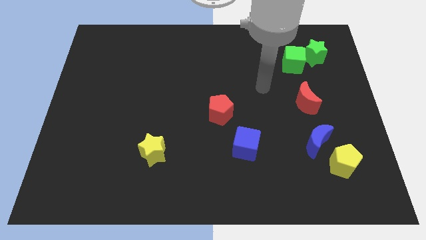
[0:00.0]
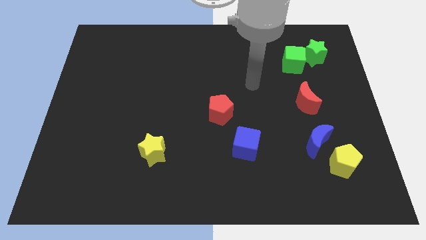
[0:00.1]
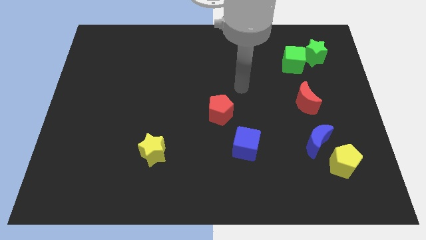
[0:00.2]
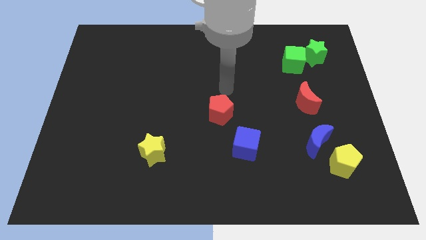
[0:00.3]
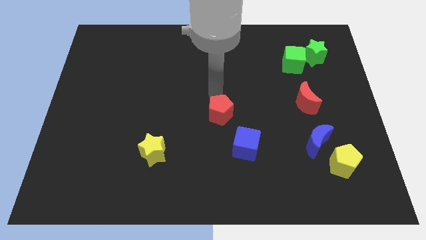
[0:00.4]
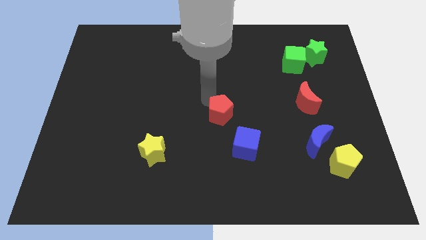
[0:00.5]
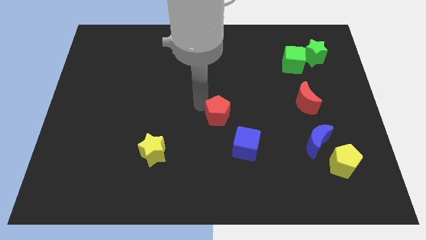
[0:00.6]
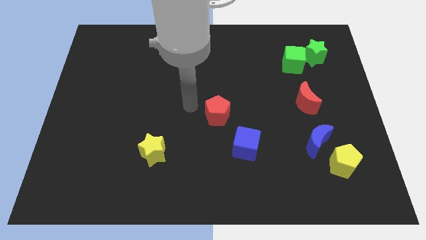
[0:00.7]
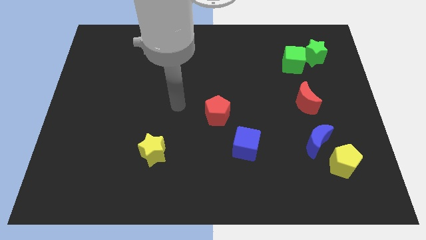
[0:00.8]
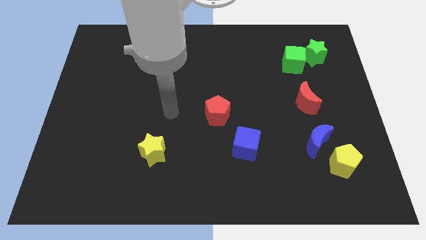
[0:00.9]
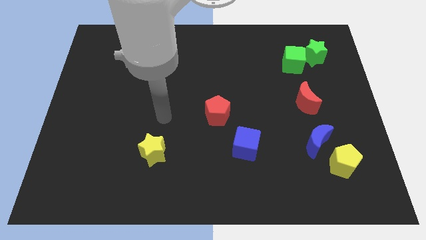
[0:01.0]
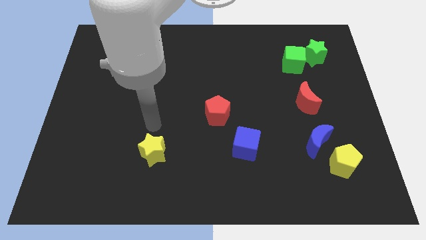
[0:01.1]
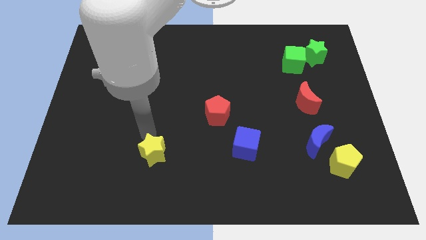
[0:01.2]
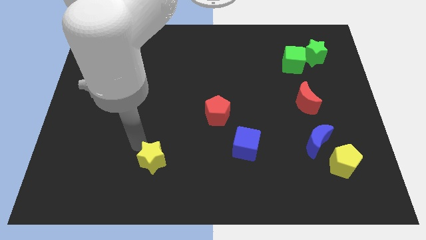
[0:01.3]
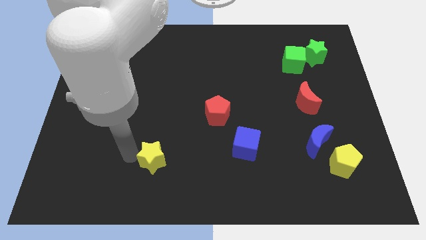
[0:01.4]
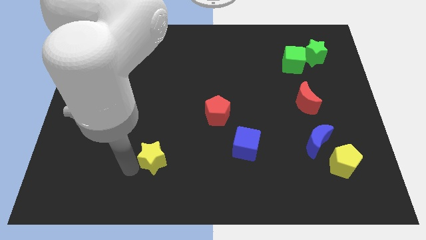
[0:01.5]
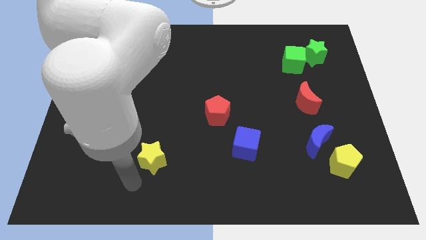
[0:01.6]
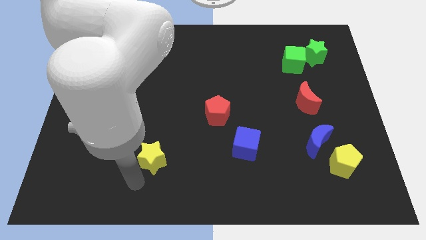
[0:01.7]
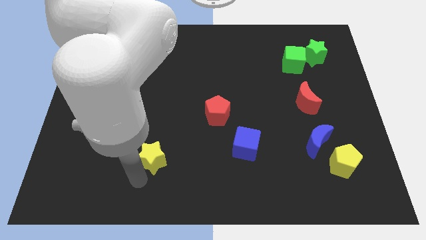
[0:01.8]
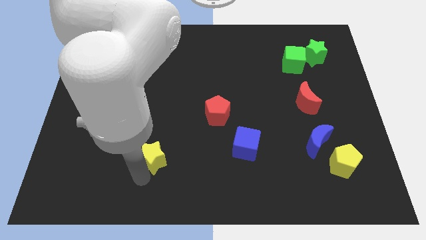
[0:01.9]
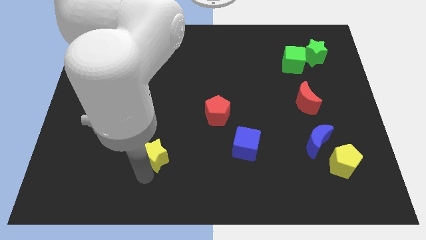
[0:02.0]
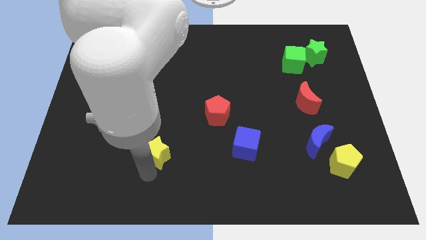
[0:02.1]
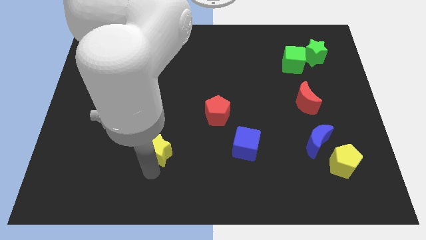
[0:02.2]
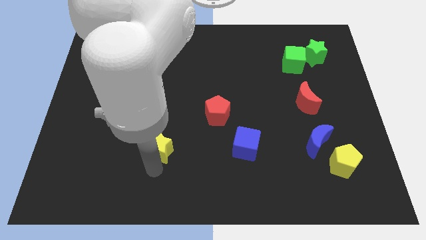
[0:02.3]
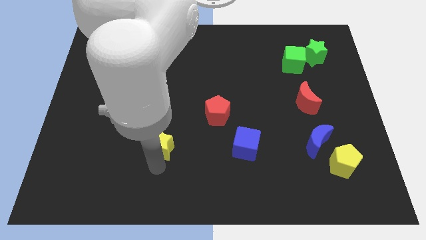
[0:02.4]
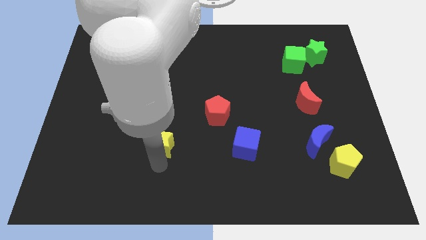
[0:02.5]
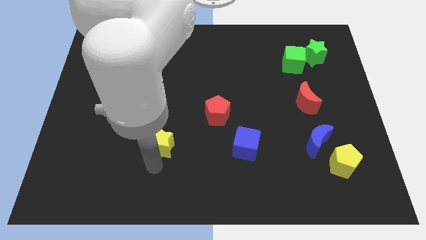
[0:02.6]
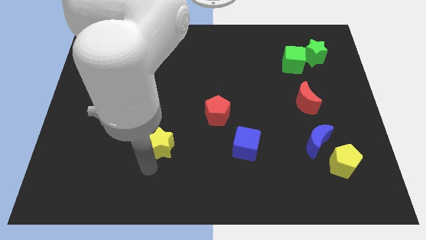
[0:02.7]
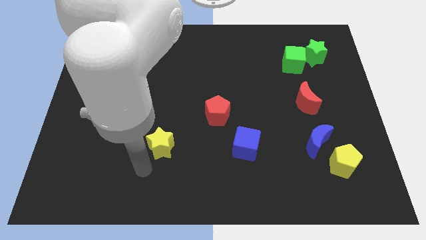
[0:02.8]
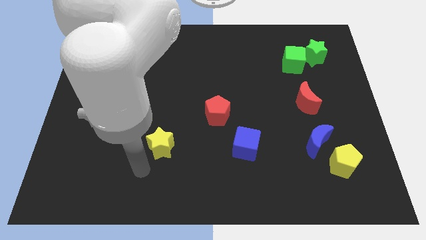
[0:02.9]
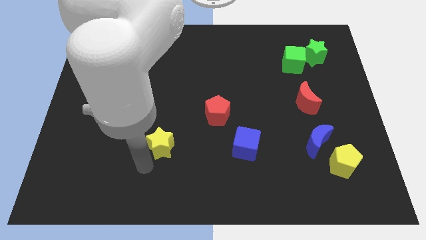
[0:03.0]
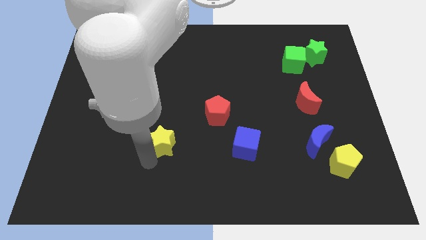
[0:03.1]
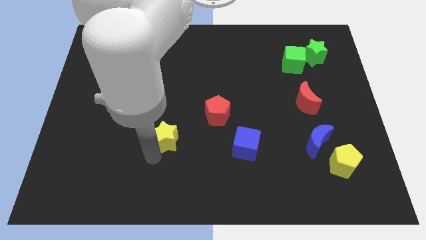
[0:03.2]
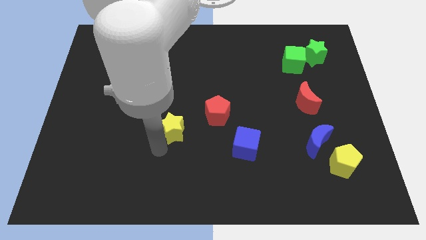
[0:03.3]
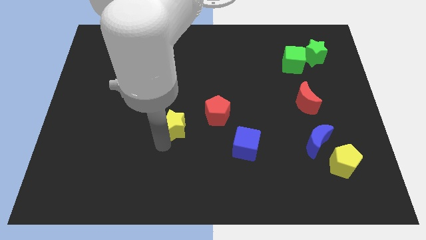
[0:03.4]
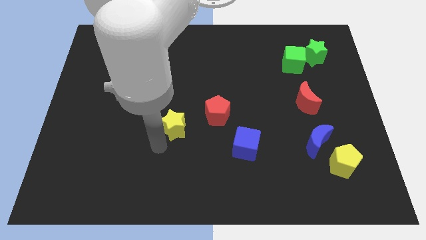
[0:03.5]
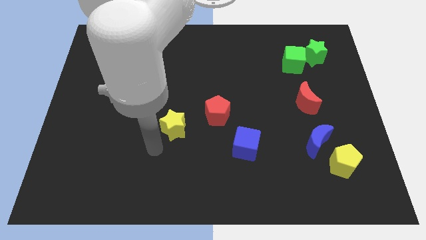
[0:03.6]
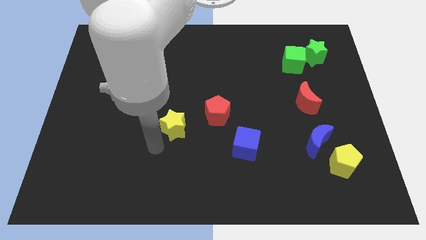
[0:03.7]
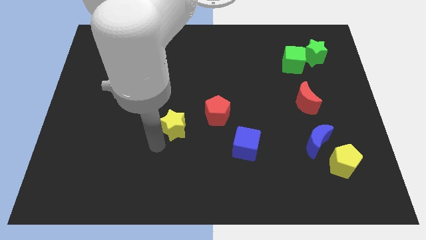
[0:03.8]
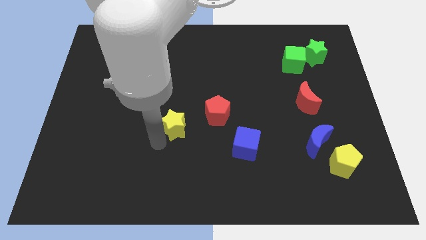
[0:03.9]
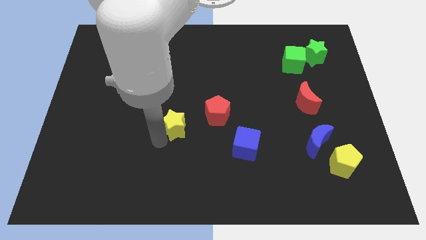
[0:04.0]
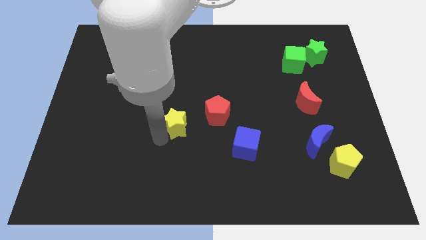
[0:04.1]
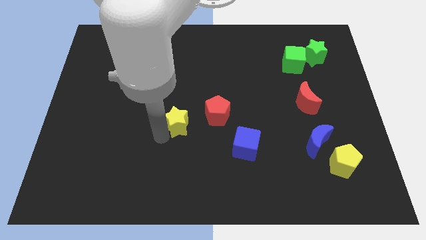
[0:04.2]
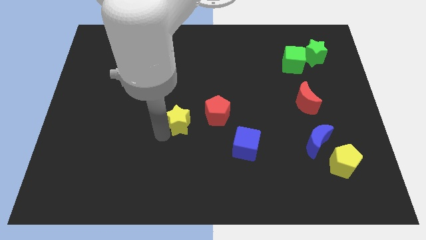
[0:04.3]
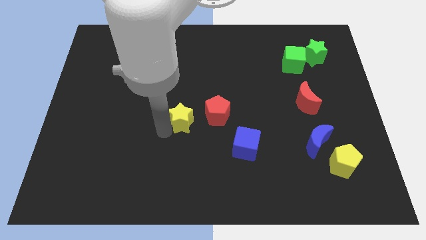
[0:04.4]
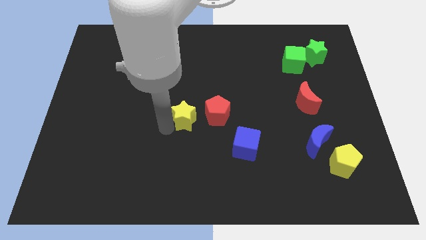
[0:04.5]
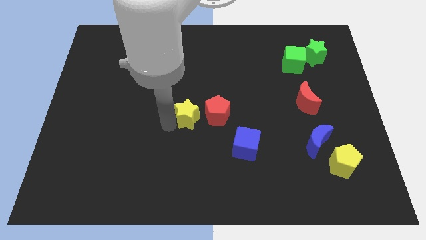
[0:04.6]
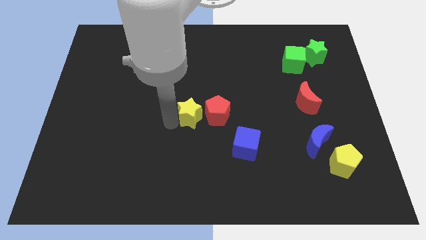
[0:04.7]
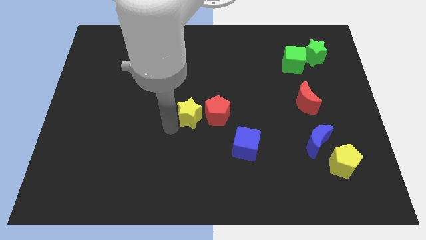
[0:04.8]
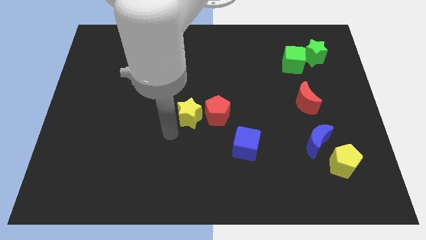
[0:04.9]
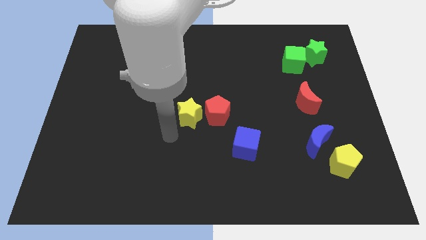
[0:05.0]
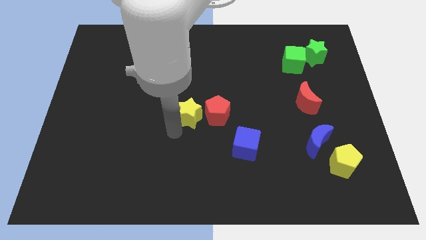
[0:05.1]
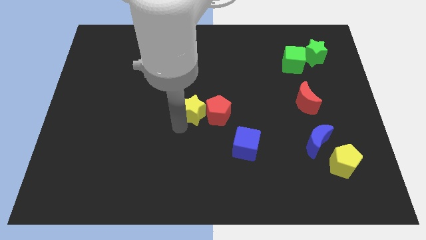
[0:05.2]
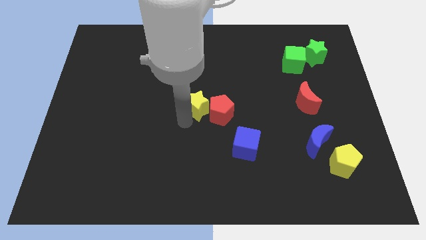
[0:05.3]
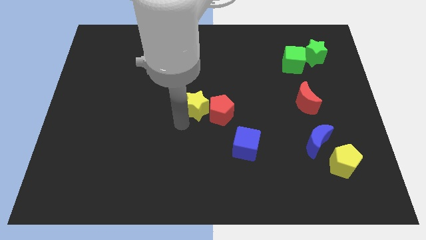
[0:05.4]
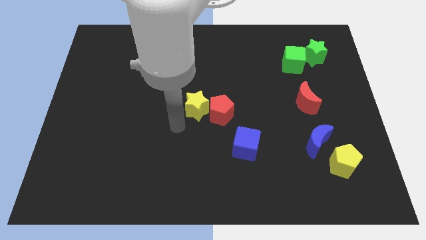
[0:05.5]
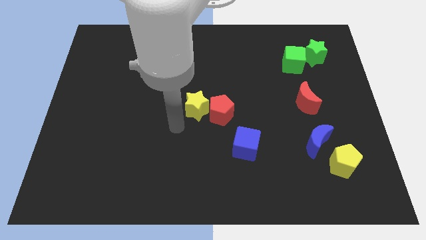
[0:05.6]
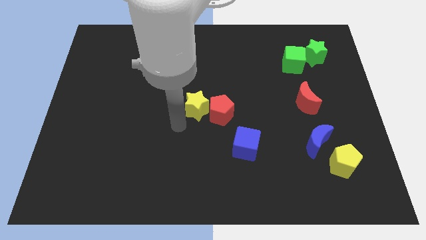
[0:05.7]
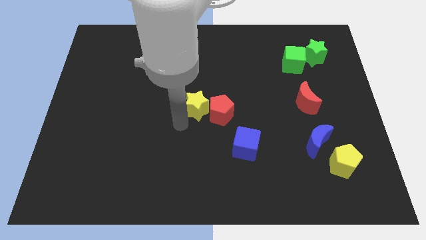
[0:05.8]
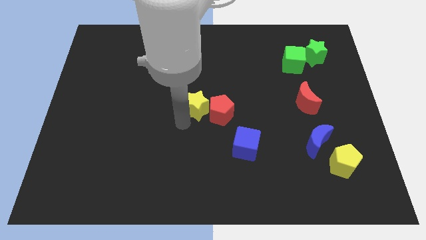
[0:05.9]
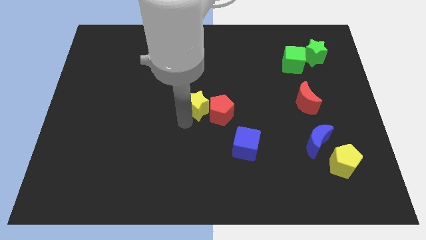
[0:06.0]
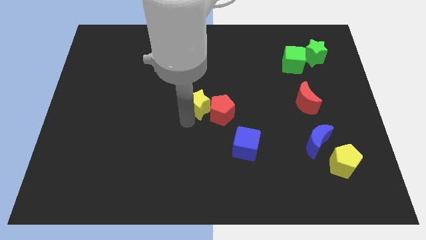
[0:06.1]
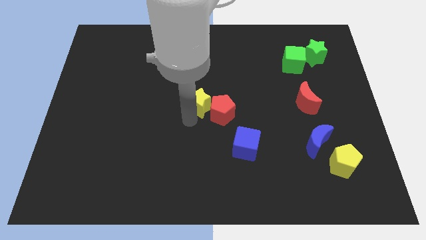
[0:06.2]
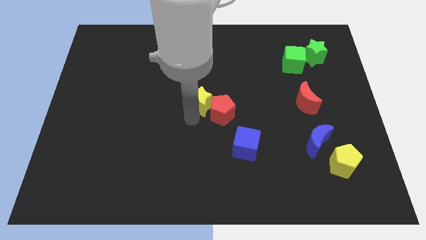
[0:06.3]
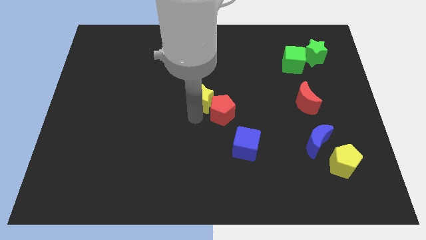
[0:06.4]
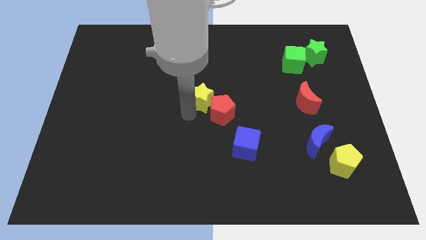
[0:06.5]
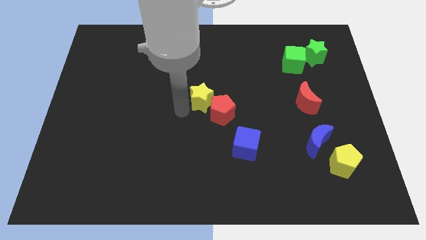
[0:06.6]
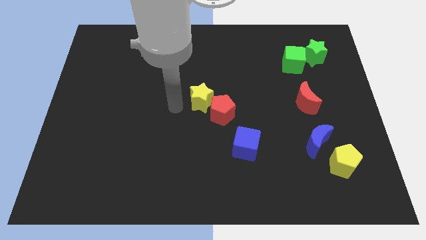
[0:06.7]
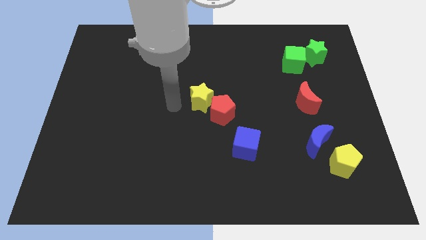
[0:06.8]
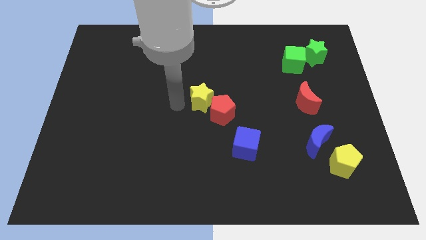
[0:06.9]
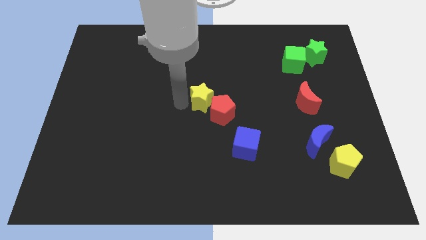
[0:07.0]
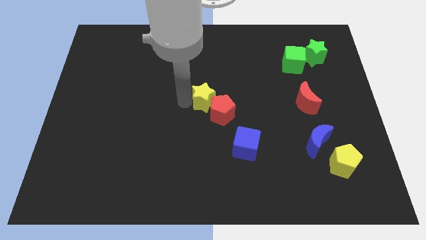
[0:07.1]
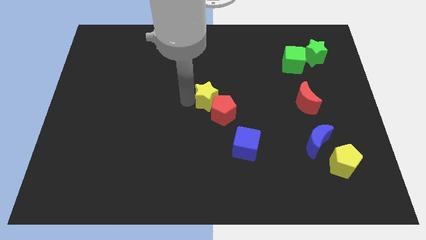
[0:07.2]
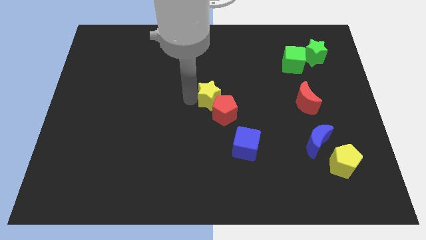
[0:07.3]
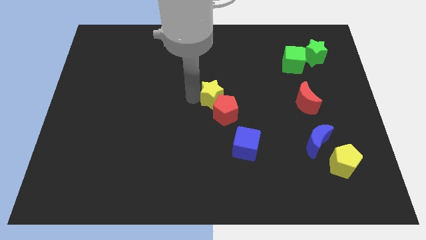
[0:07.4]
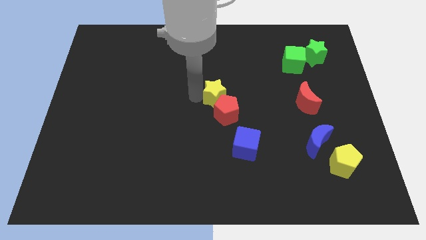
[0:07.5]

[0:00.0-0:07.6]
push the yellow star up and to the right

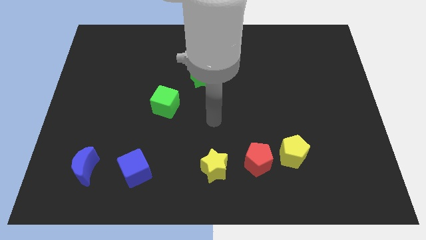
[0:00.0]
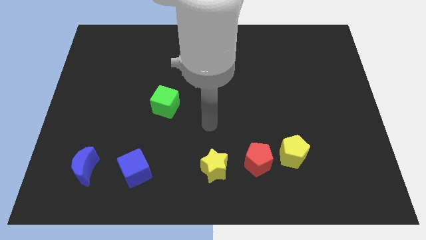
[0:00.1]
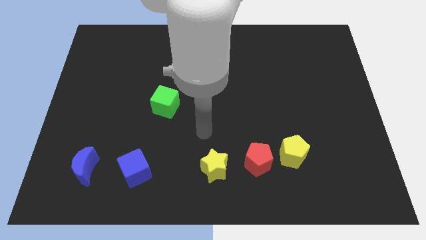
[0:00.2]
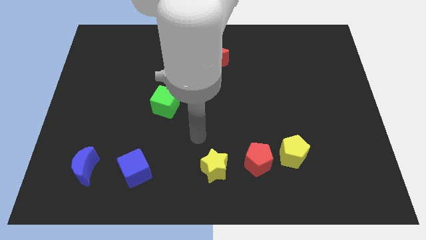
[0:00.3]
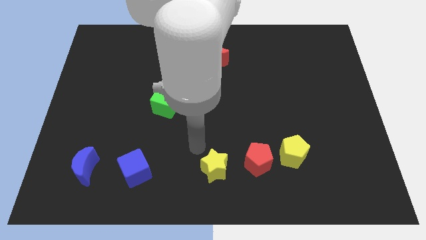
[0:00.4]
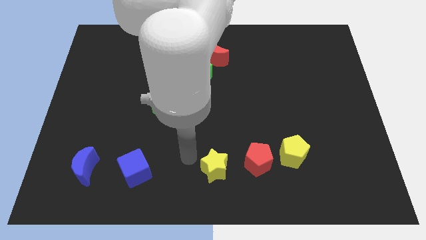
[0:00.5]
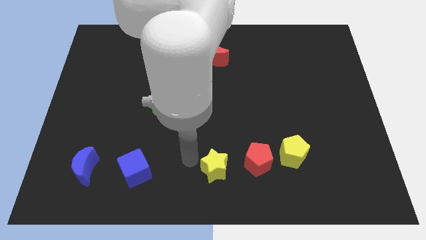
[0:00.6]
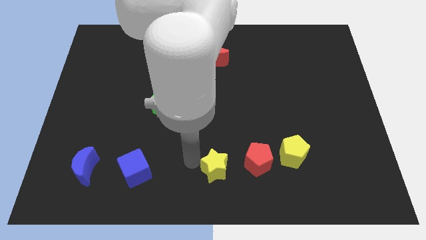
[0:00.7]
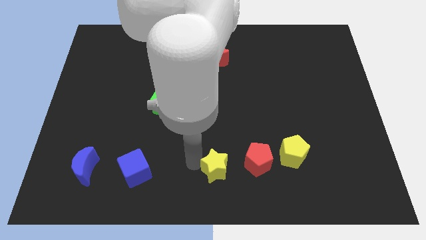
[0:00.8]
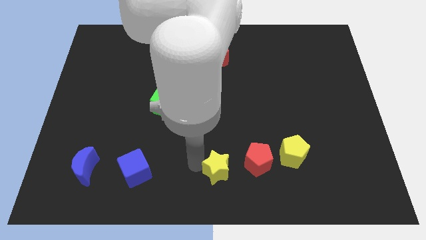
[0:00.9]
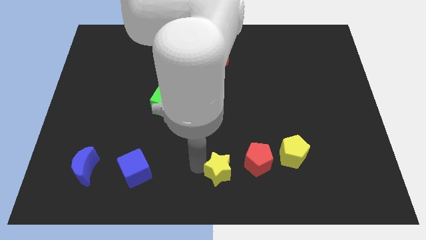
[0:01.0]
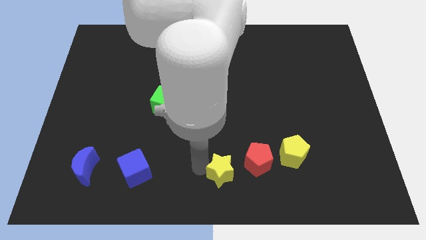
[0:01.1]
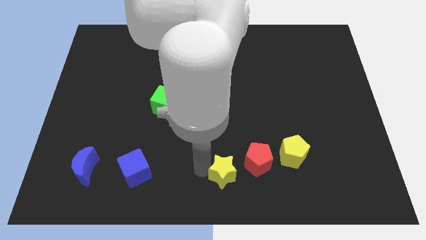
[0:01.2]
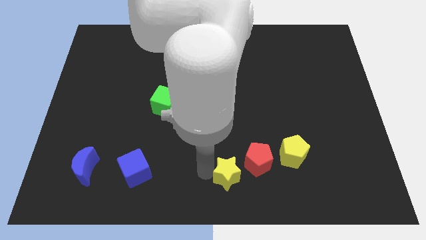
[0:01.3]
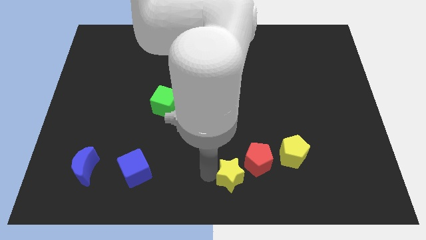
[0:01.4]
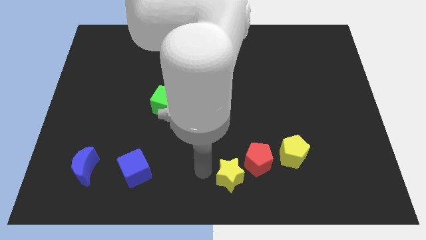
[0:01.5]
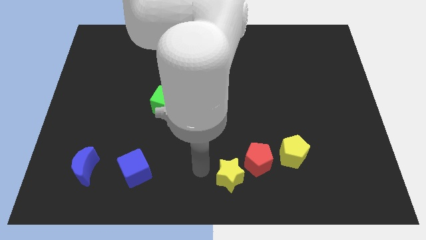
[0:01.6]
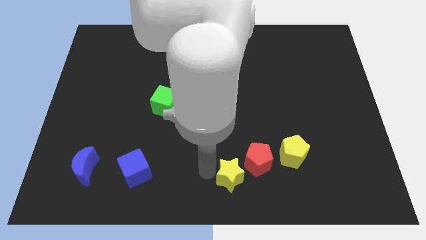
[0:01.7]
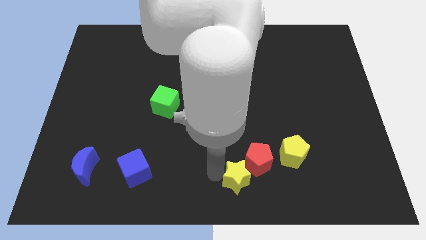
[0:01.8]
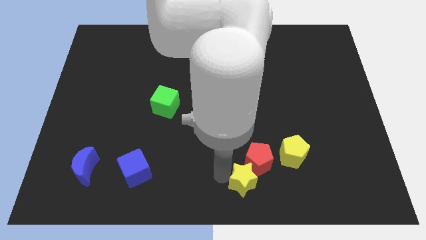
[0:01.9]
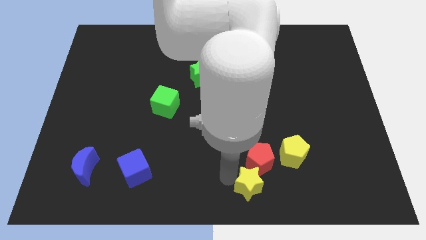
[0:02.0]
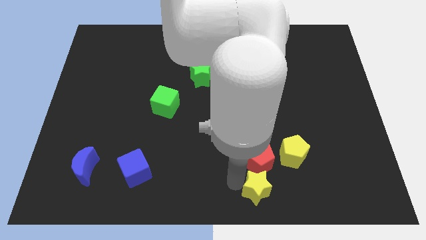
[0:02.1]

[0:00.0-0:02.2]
push the yellow star right a little
